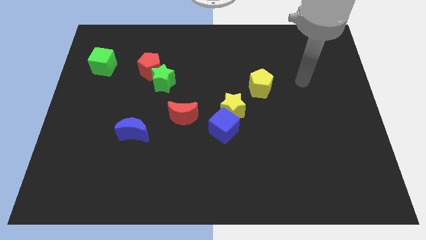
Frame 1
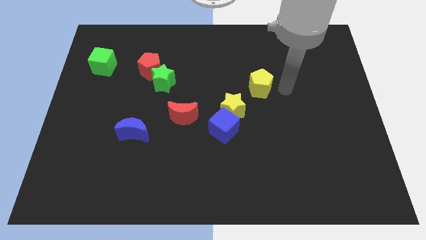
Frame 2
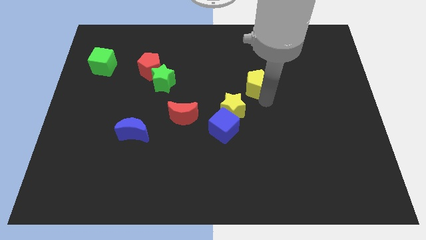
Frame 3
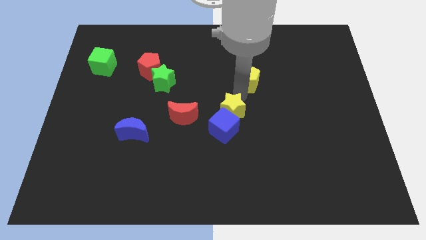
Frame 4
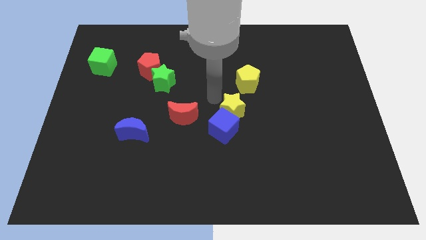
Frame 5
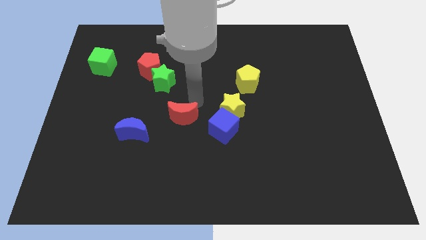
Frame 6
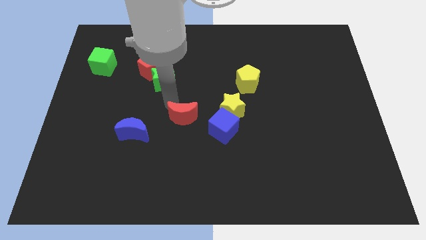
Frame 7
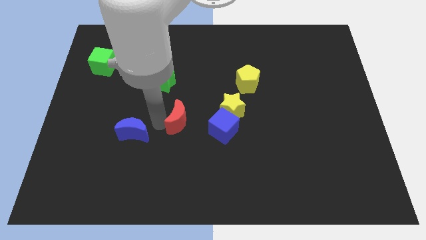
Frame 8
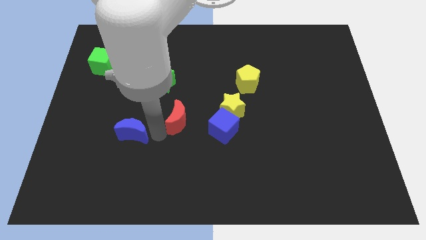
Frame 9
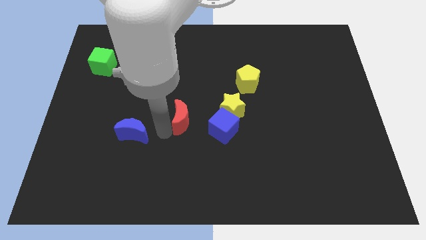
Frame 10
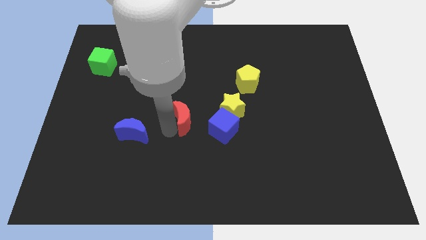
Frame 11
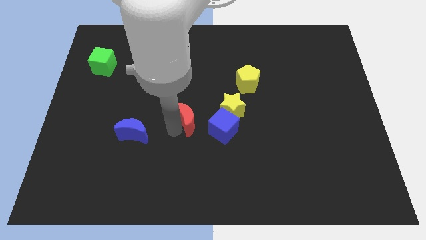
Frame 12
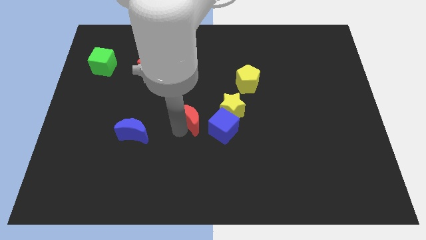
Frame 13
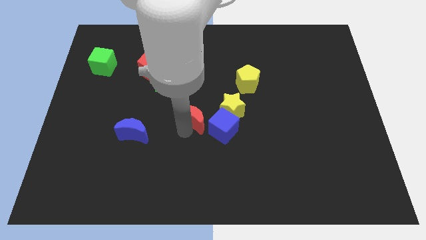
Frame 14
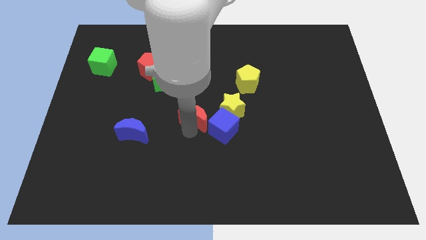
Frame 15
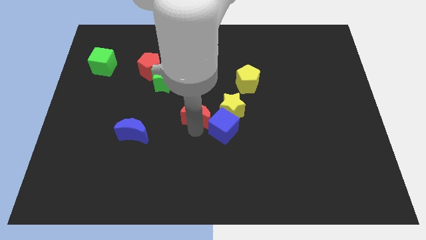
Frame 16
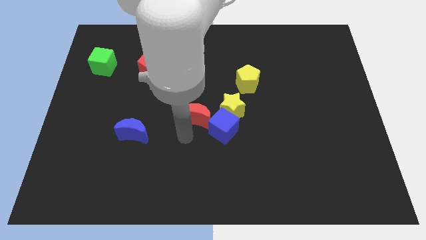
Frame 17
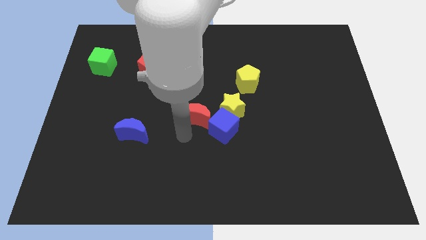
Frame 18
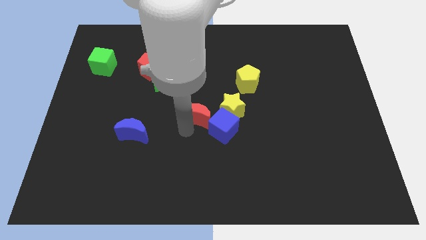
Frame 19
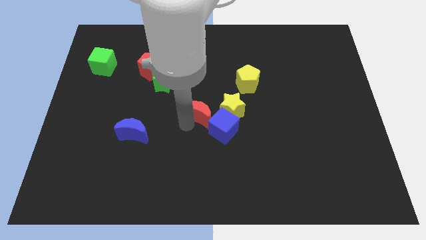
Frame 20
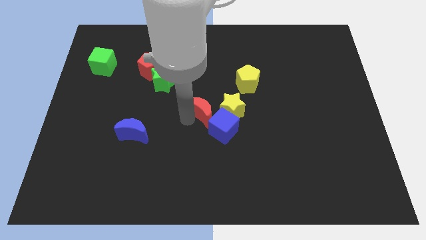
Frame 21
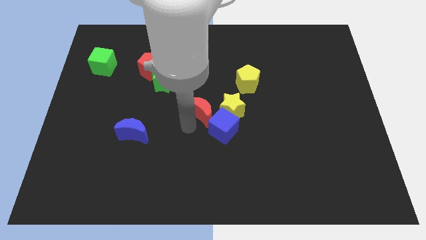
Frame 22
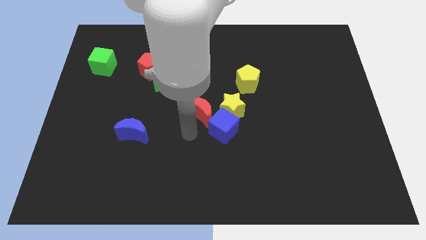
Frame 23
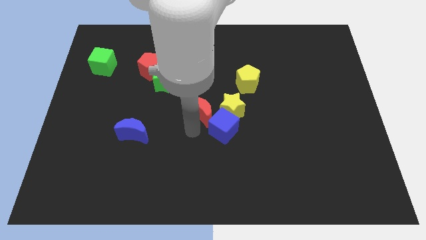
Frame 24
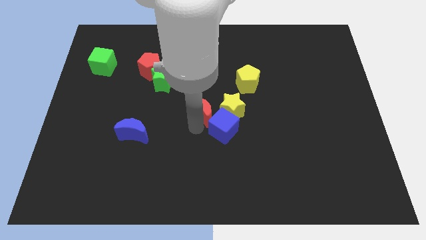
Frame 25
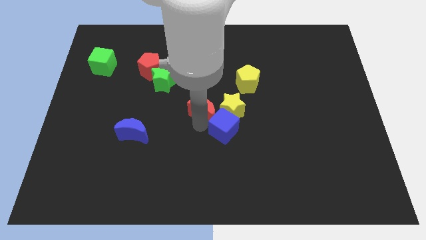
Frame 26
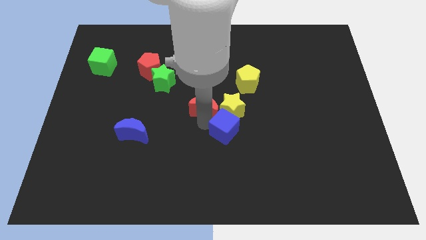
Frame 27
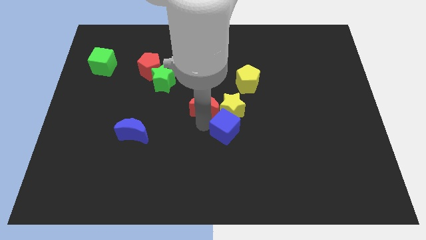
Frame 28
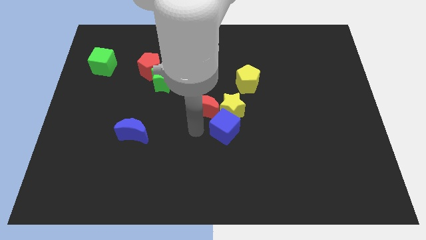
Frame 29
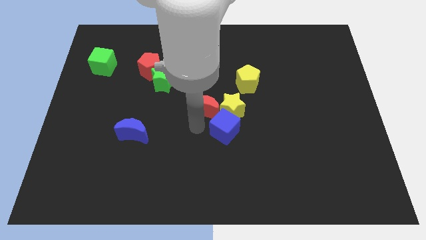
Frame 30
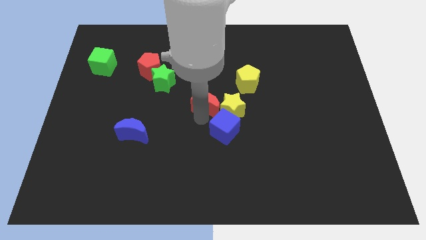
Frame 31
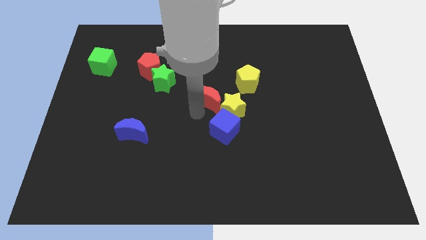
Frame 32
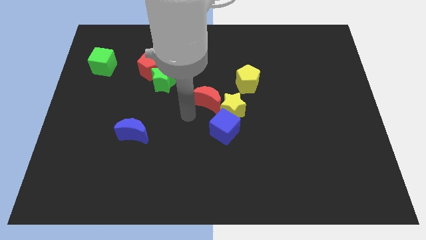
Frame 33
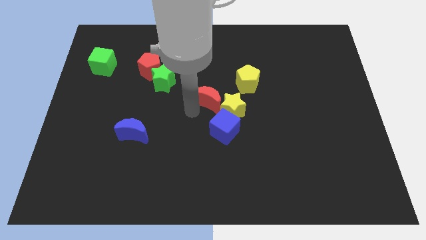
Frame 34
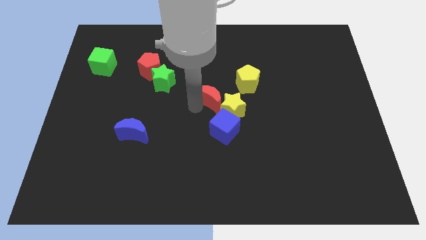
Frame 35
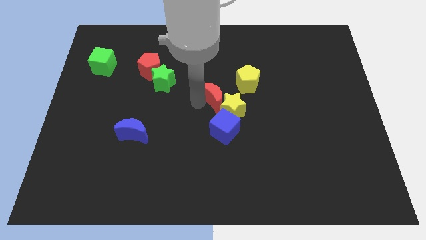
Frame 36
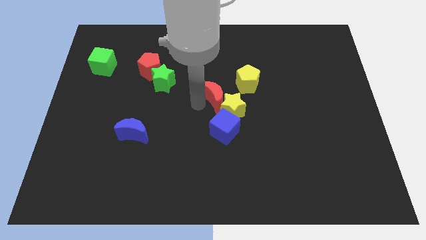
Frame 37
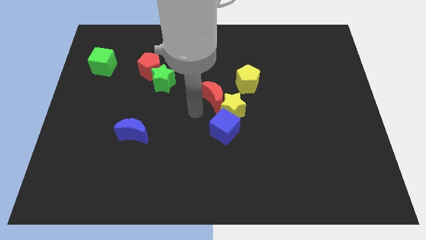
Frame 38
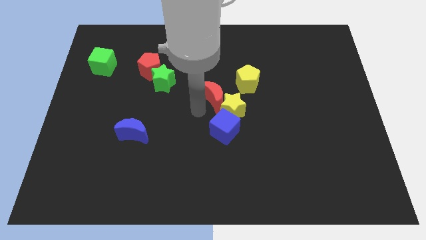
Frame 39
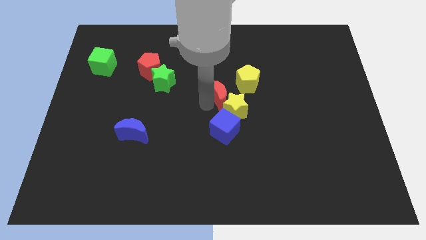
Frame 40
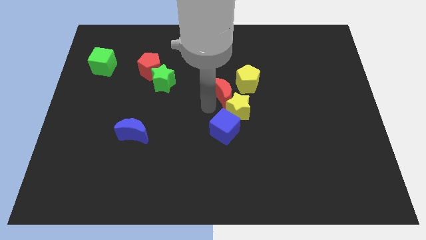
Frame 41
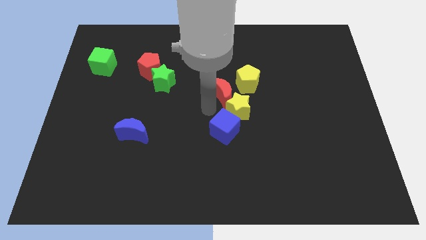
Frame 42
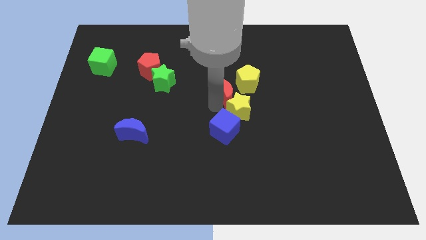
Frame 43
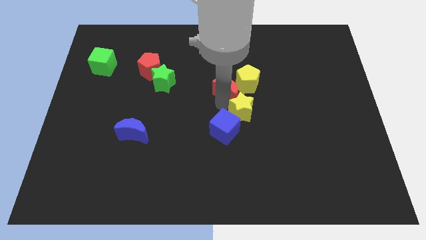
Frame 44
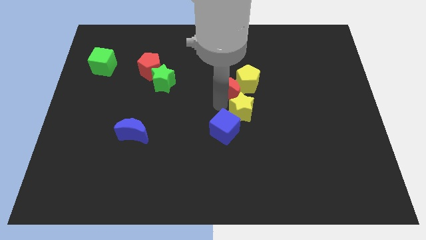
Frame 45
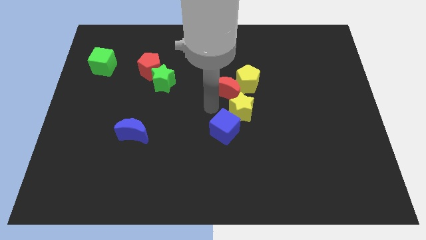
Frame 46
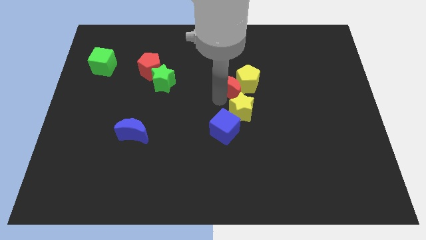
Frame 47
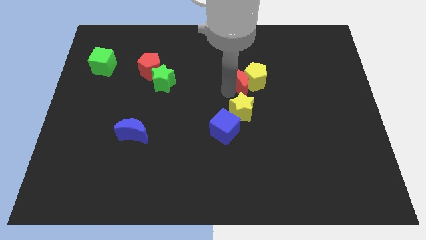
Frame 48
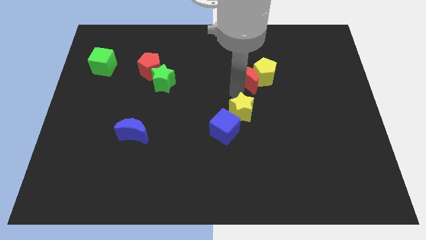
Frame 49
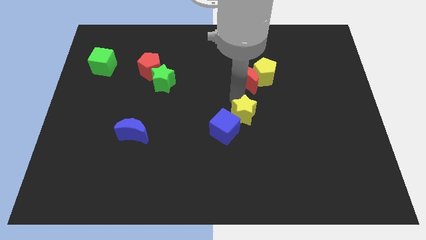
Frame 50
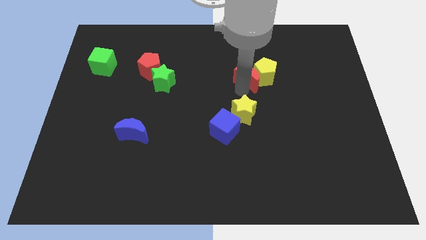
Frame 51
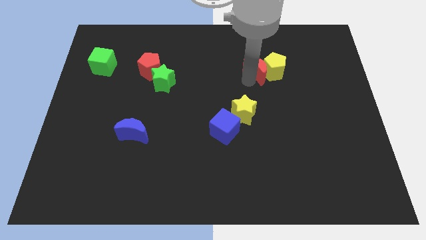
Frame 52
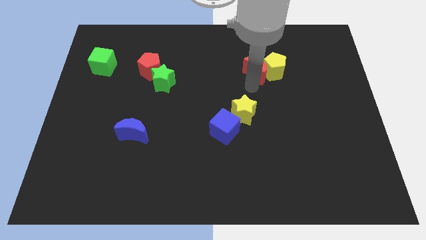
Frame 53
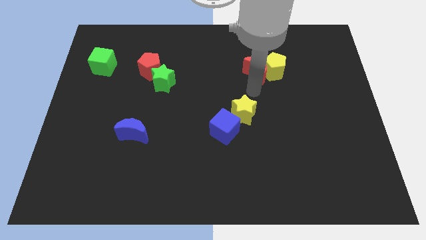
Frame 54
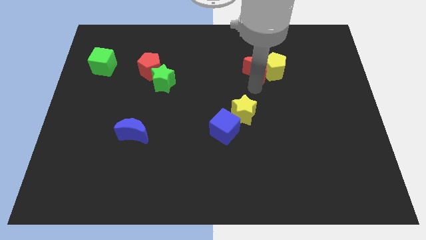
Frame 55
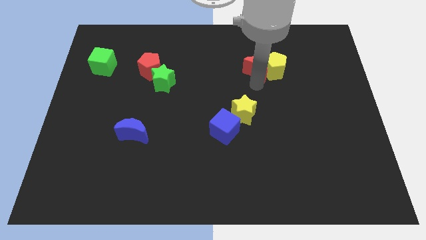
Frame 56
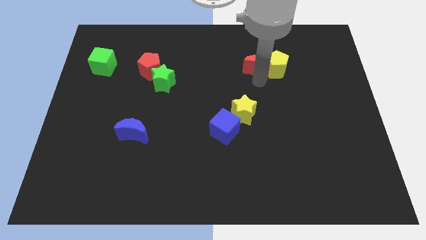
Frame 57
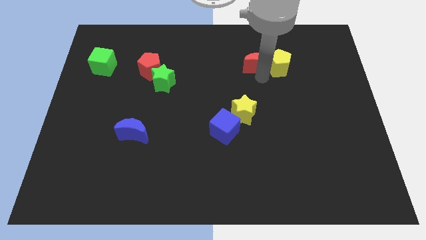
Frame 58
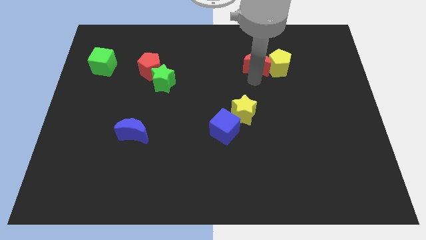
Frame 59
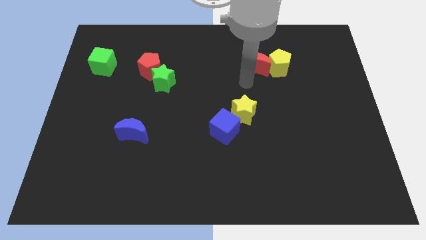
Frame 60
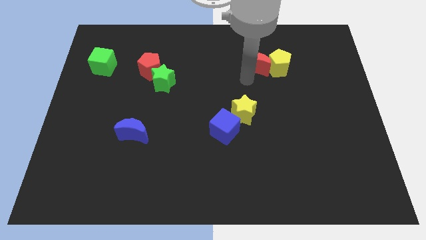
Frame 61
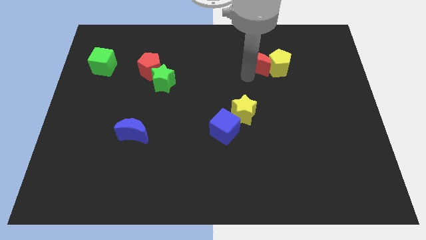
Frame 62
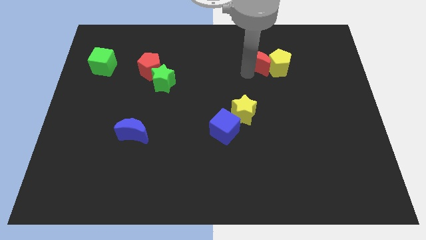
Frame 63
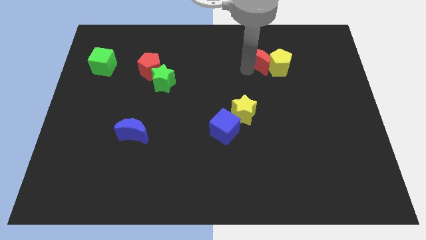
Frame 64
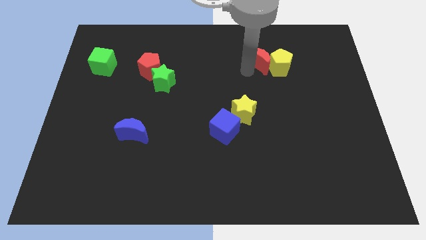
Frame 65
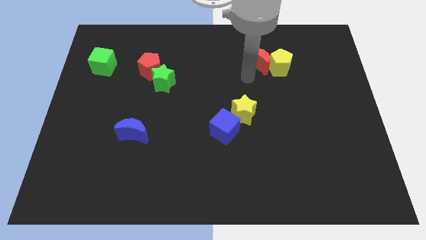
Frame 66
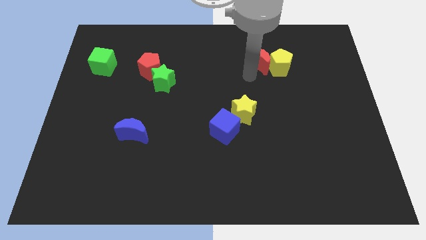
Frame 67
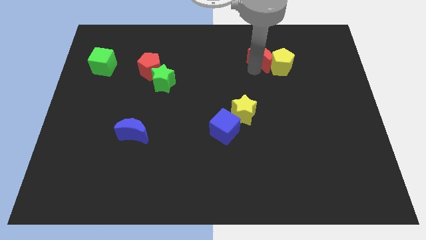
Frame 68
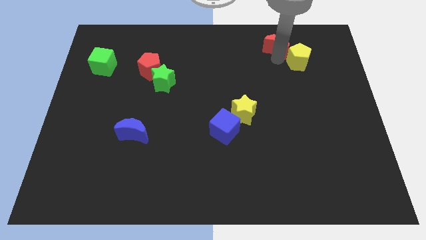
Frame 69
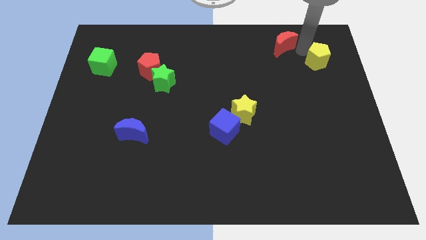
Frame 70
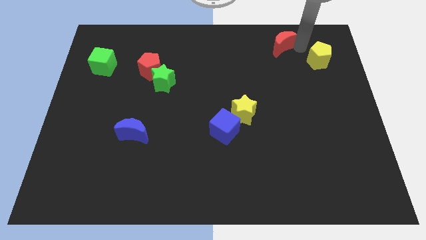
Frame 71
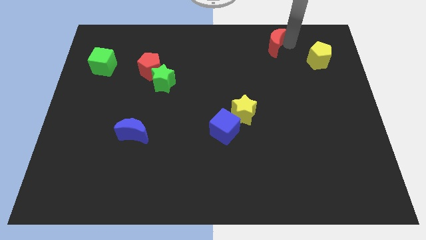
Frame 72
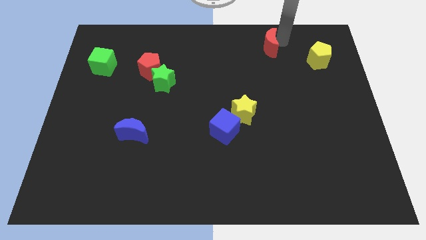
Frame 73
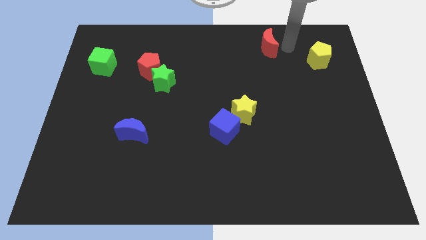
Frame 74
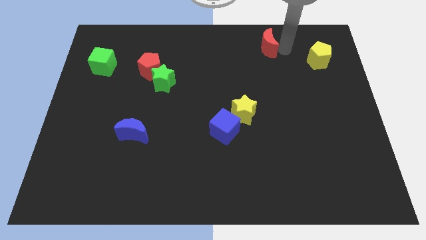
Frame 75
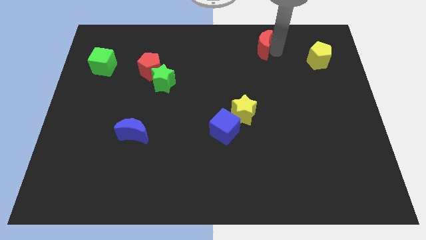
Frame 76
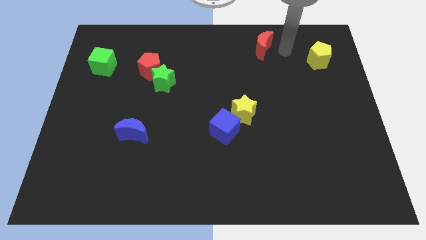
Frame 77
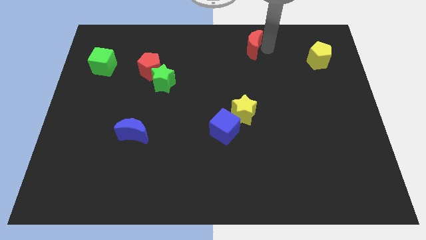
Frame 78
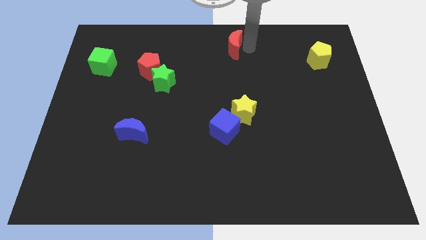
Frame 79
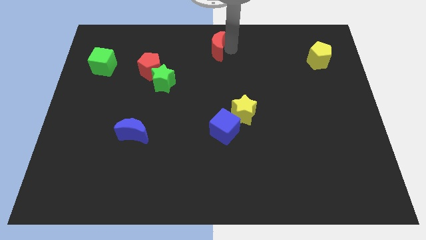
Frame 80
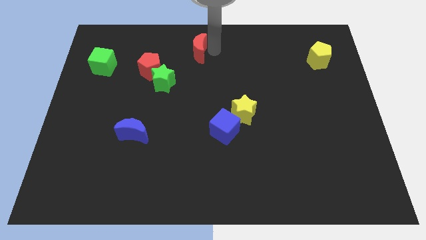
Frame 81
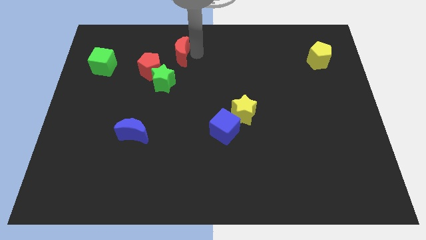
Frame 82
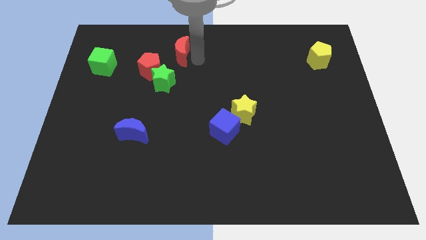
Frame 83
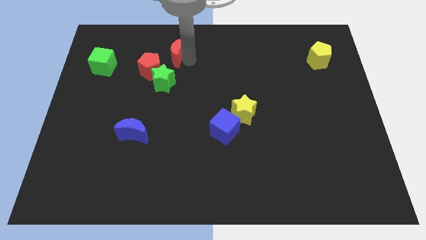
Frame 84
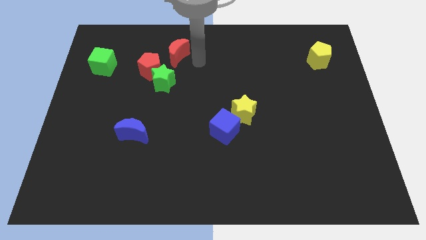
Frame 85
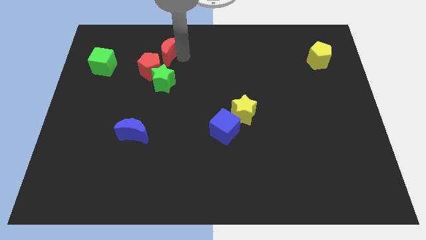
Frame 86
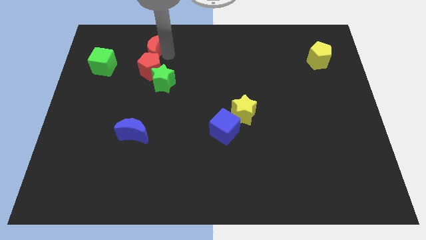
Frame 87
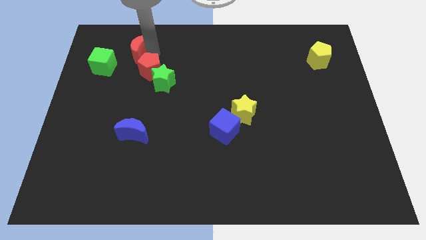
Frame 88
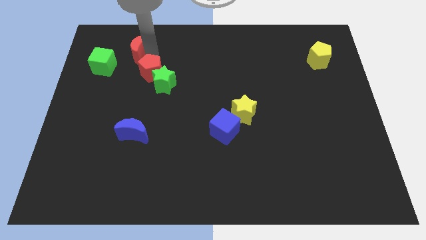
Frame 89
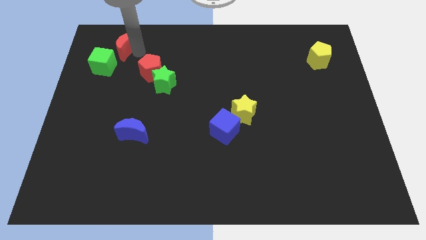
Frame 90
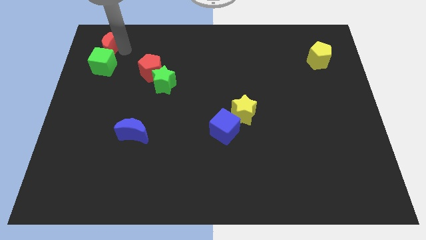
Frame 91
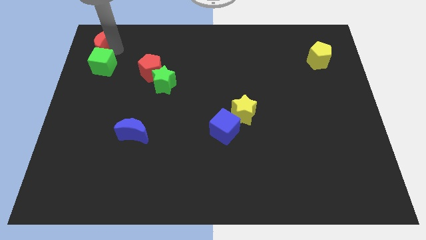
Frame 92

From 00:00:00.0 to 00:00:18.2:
push the red moon to the top left
